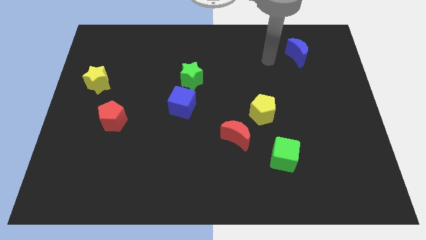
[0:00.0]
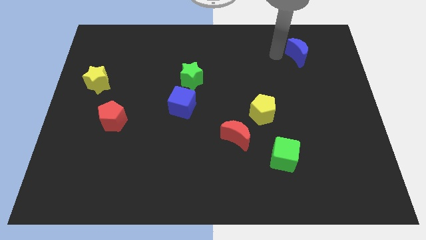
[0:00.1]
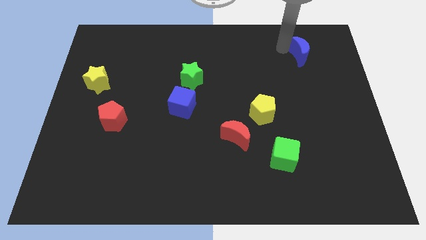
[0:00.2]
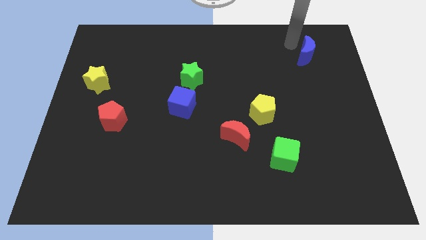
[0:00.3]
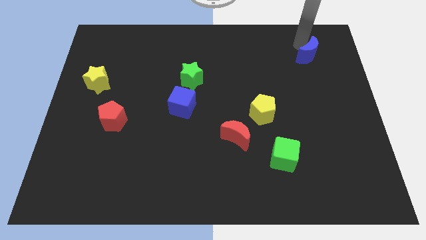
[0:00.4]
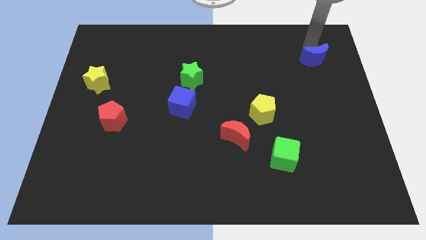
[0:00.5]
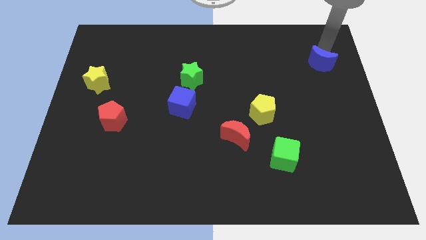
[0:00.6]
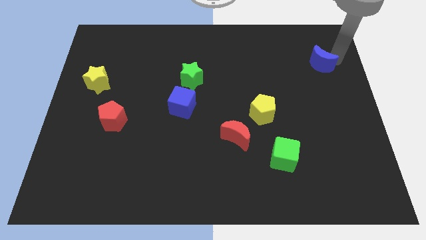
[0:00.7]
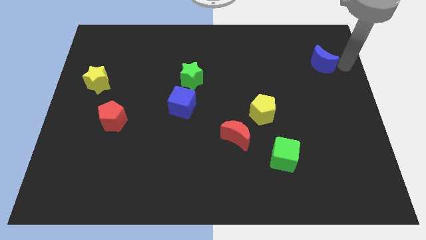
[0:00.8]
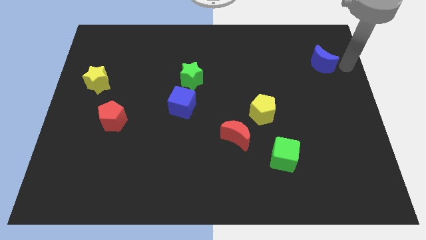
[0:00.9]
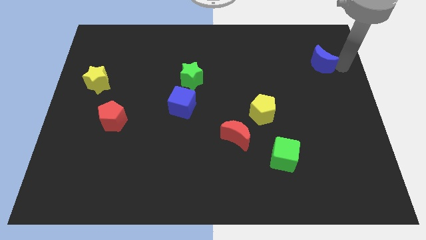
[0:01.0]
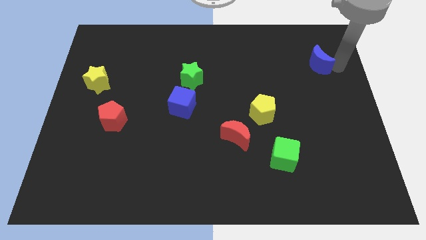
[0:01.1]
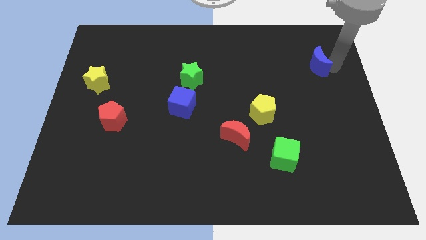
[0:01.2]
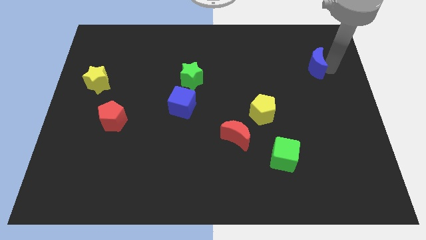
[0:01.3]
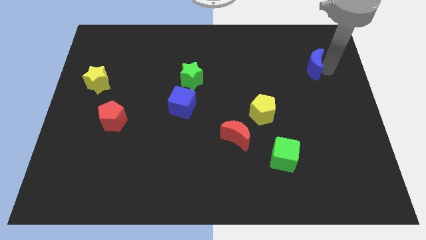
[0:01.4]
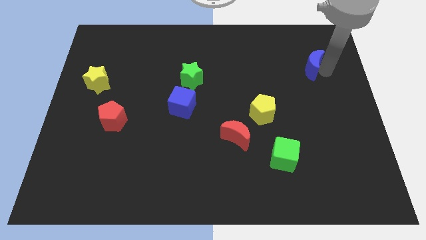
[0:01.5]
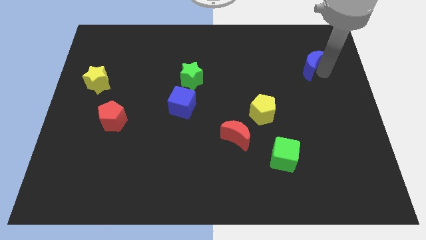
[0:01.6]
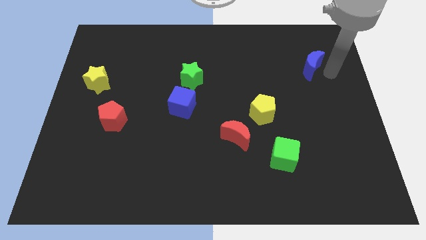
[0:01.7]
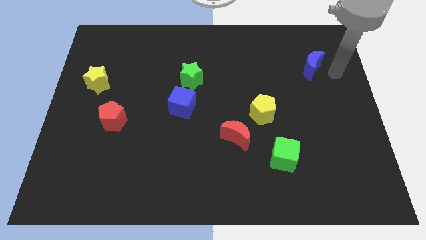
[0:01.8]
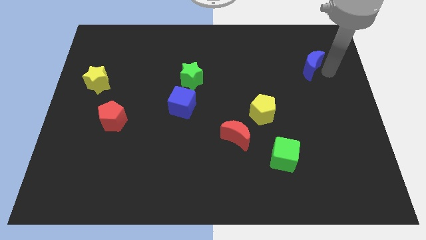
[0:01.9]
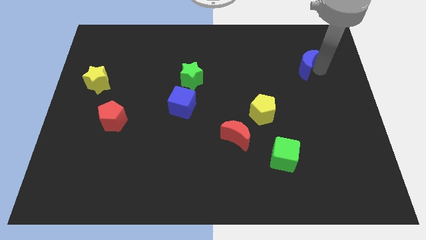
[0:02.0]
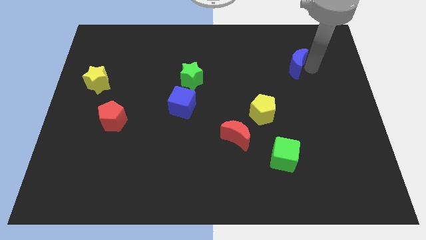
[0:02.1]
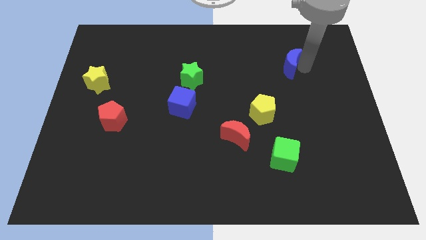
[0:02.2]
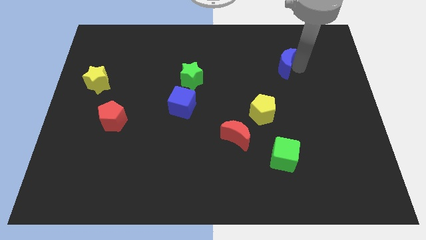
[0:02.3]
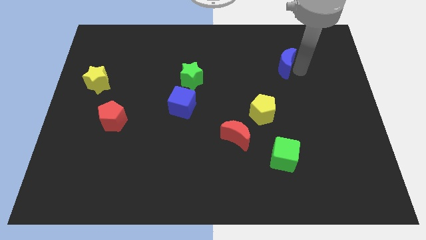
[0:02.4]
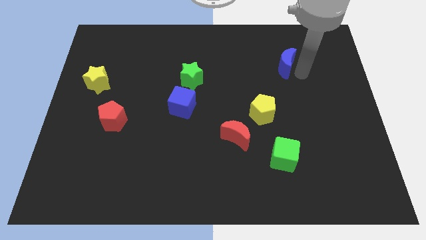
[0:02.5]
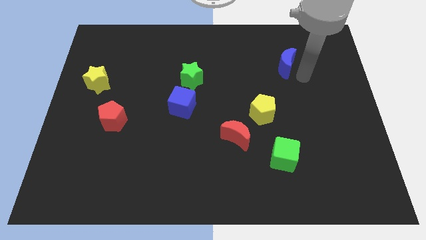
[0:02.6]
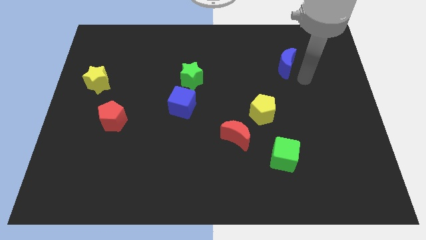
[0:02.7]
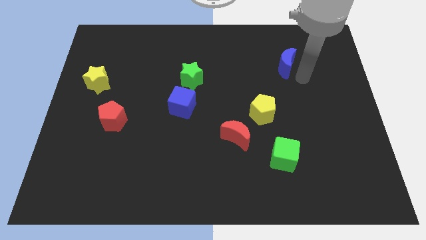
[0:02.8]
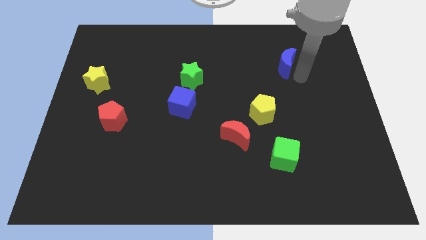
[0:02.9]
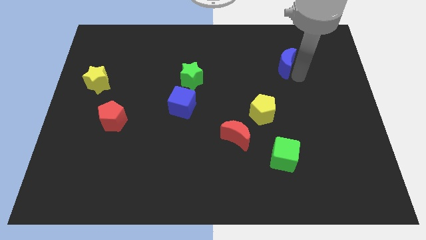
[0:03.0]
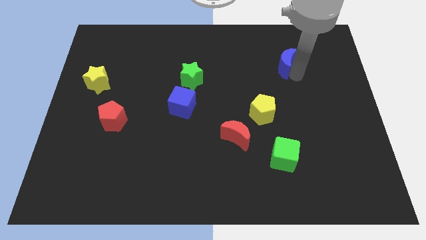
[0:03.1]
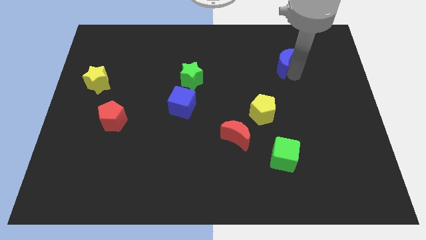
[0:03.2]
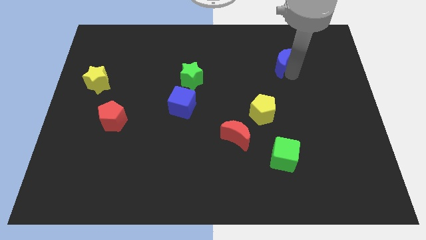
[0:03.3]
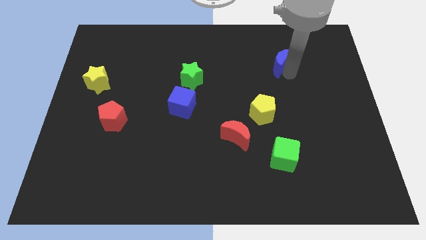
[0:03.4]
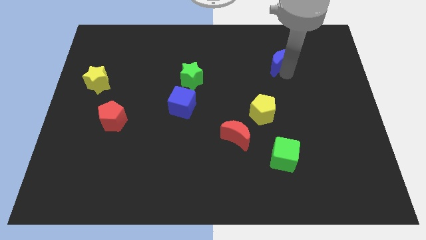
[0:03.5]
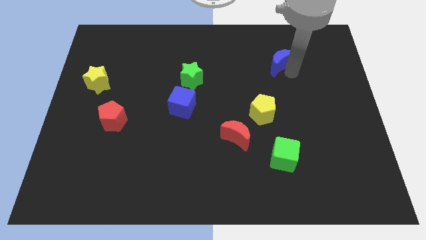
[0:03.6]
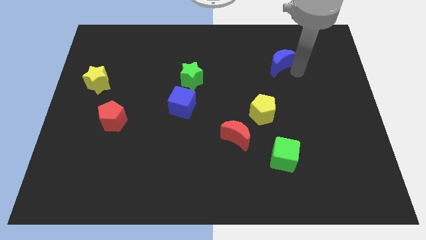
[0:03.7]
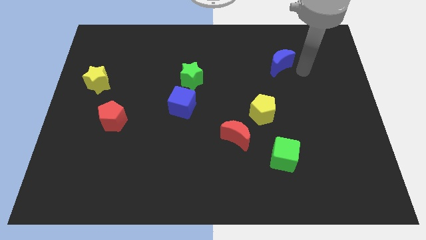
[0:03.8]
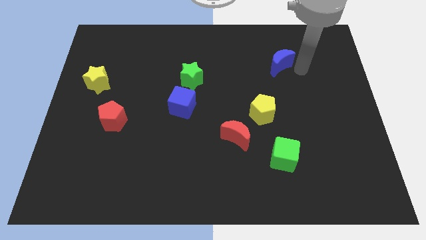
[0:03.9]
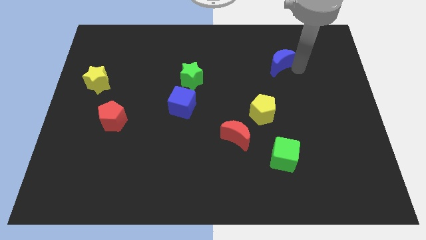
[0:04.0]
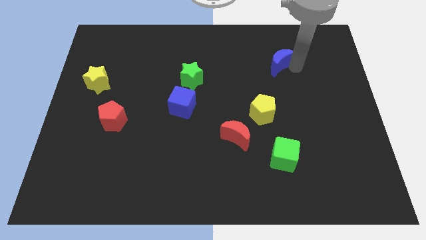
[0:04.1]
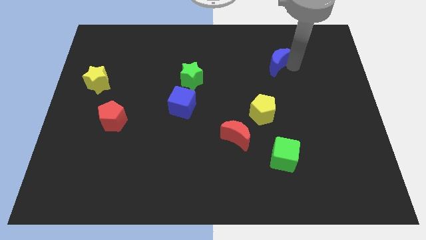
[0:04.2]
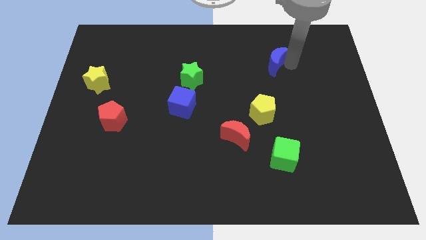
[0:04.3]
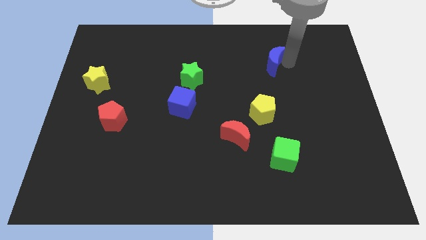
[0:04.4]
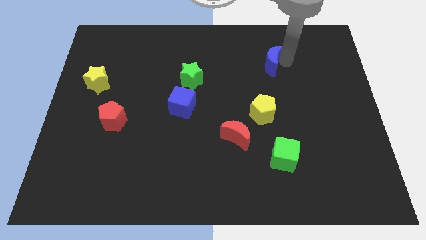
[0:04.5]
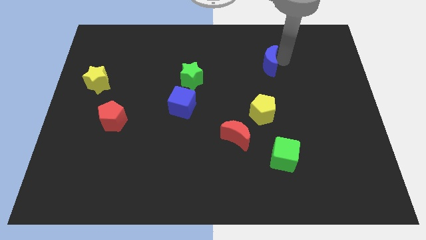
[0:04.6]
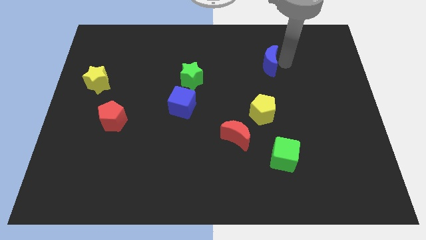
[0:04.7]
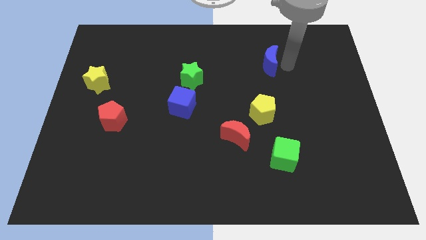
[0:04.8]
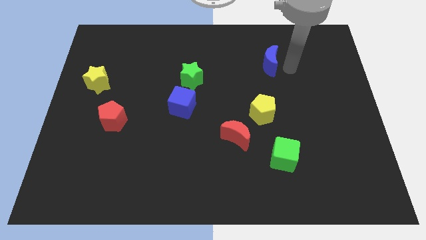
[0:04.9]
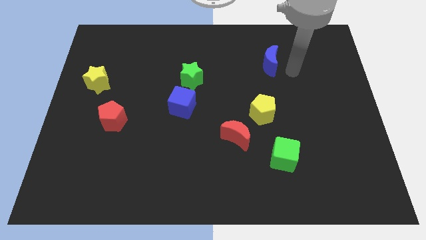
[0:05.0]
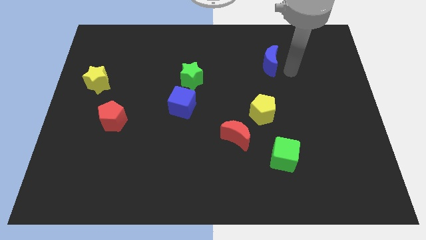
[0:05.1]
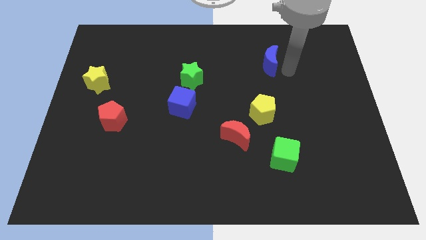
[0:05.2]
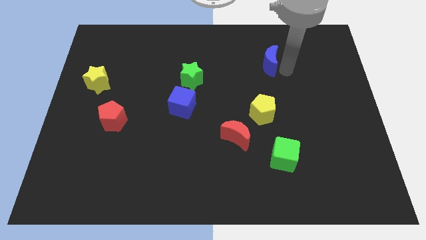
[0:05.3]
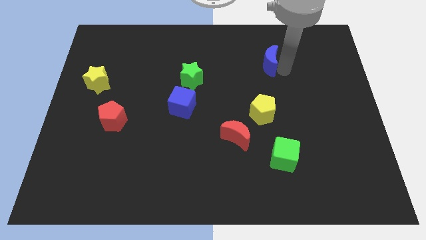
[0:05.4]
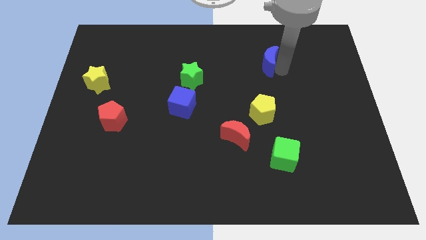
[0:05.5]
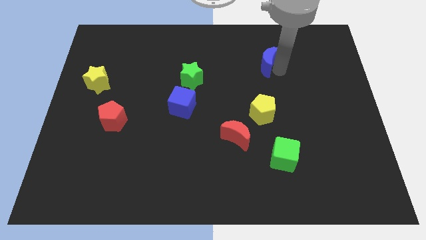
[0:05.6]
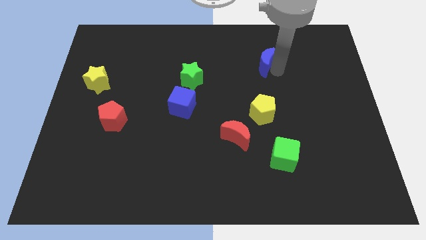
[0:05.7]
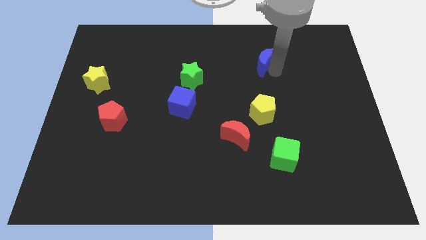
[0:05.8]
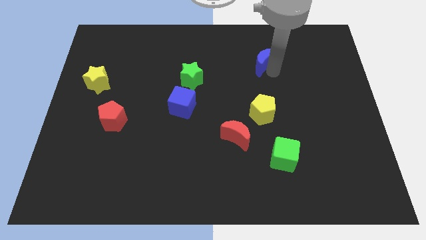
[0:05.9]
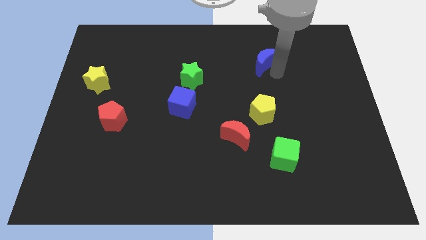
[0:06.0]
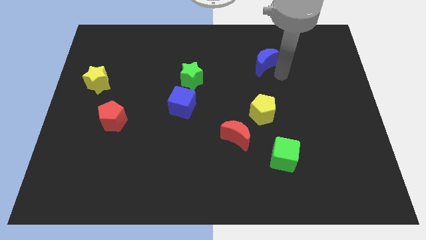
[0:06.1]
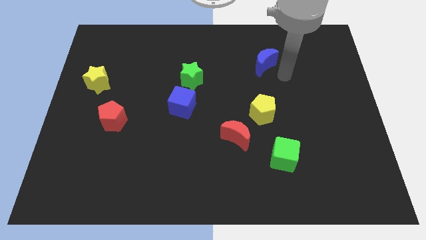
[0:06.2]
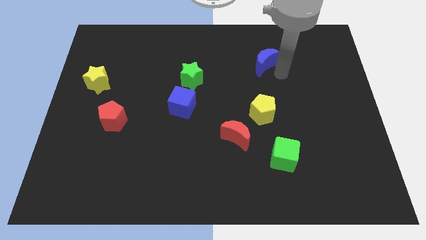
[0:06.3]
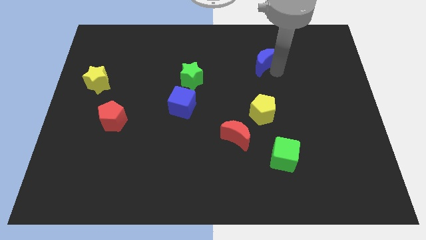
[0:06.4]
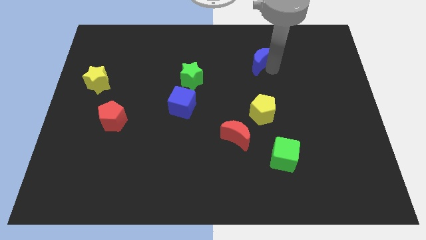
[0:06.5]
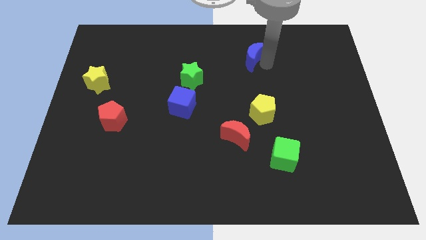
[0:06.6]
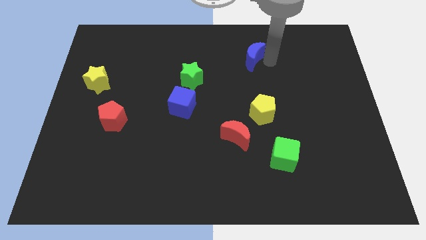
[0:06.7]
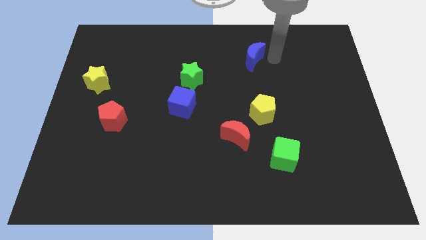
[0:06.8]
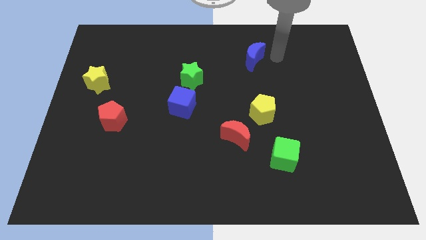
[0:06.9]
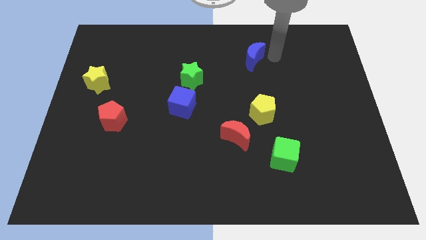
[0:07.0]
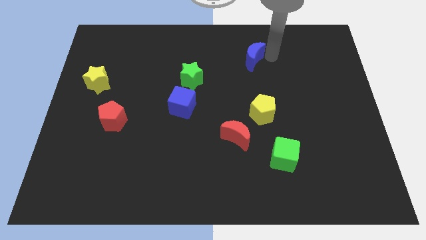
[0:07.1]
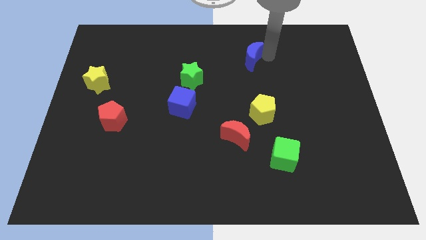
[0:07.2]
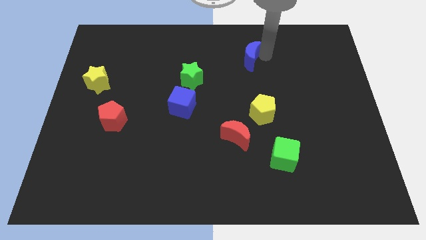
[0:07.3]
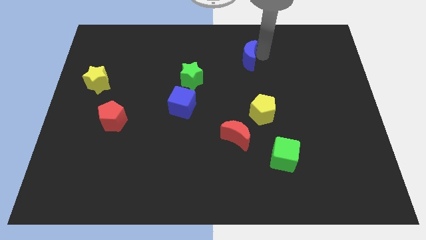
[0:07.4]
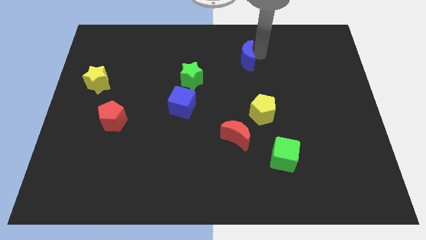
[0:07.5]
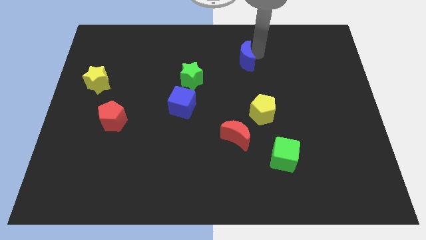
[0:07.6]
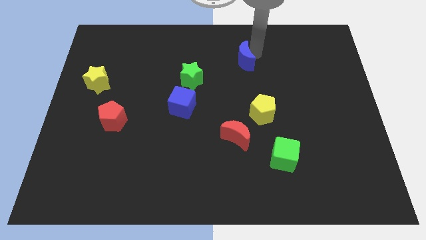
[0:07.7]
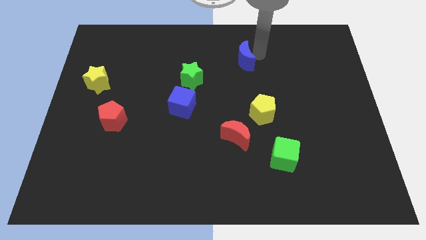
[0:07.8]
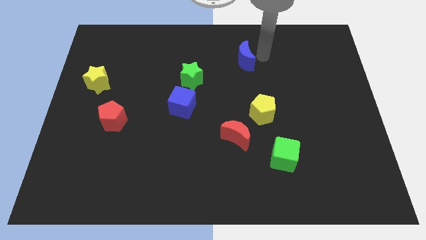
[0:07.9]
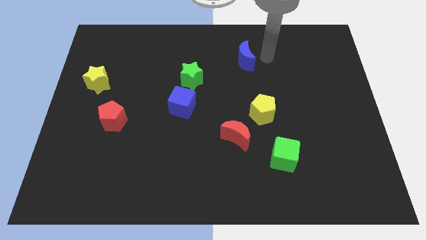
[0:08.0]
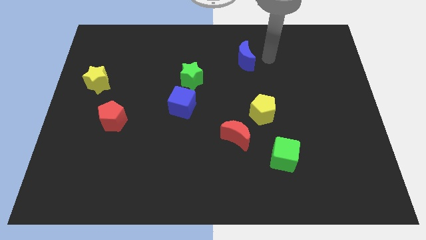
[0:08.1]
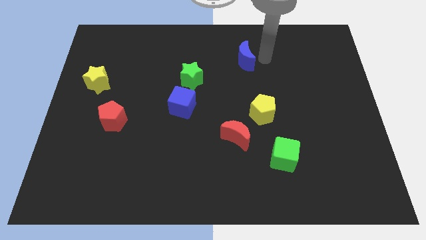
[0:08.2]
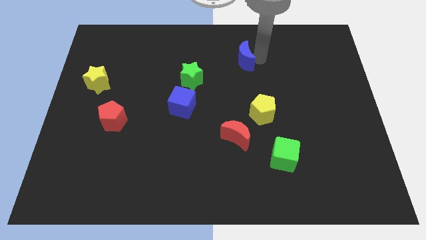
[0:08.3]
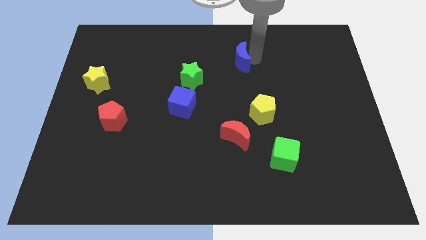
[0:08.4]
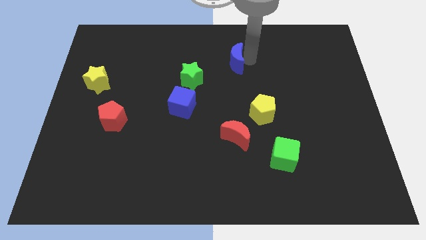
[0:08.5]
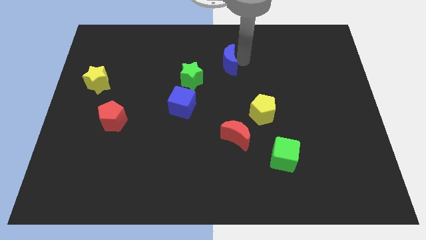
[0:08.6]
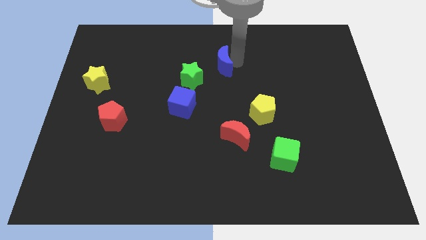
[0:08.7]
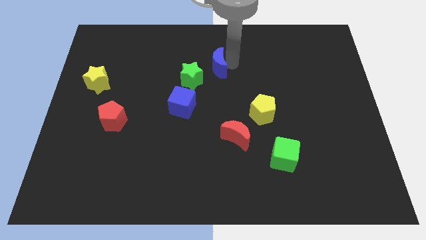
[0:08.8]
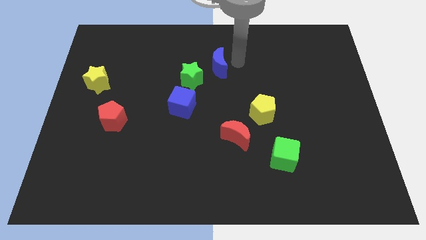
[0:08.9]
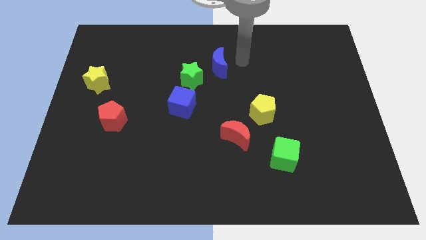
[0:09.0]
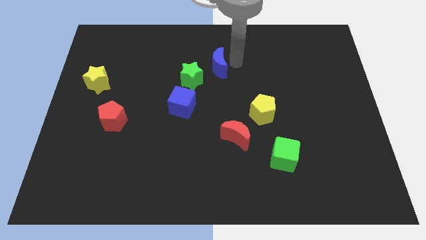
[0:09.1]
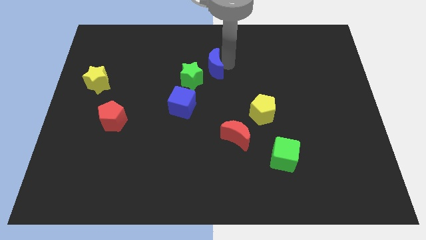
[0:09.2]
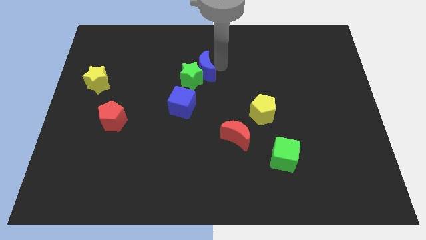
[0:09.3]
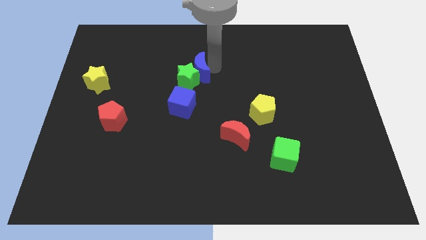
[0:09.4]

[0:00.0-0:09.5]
slide the blue moon to the top side of the blue cube
